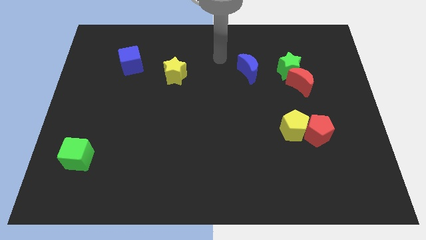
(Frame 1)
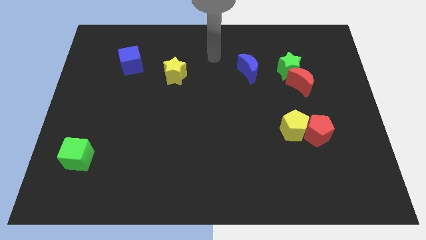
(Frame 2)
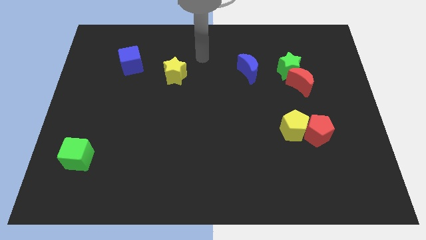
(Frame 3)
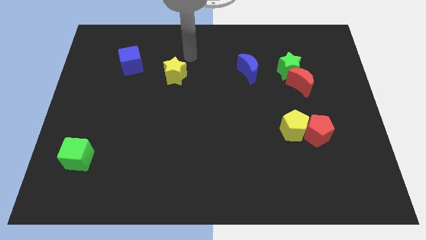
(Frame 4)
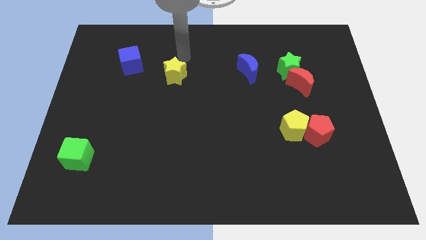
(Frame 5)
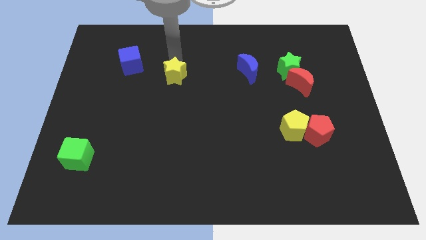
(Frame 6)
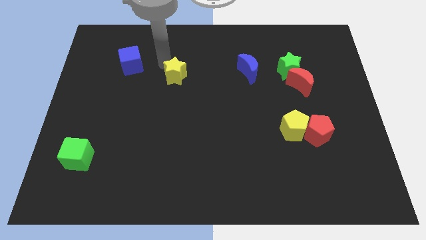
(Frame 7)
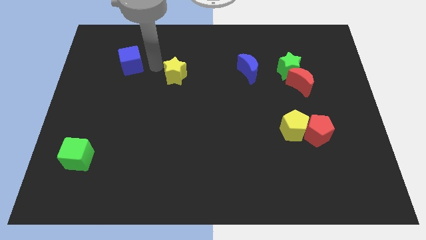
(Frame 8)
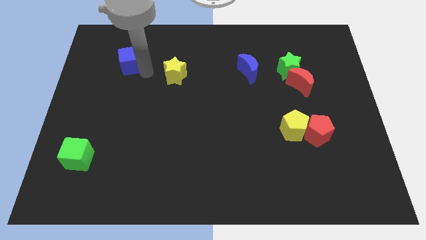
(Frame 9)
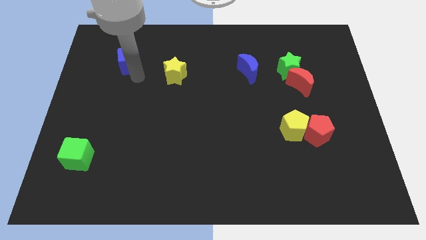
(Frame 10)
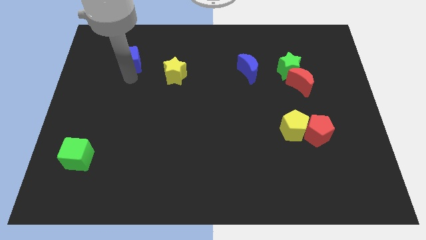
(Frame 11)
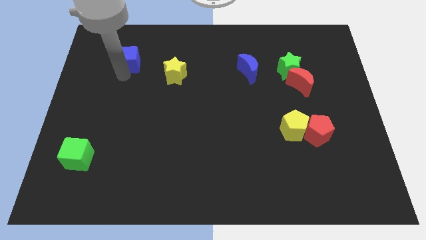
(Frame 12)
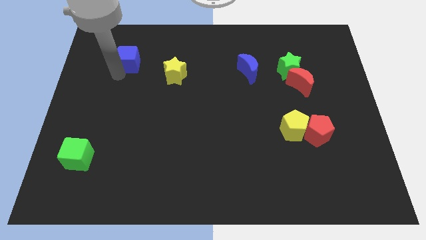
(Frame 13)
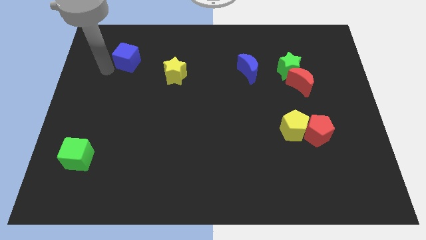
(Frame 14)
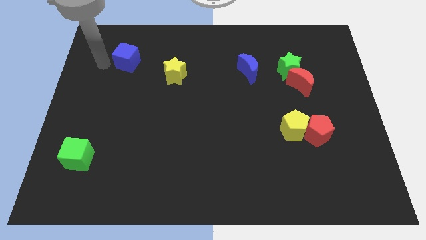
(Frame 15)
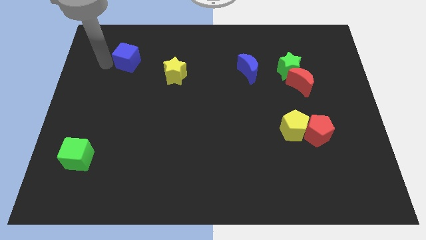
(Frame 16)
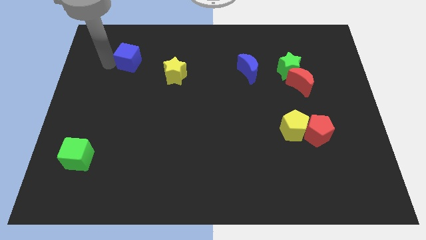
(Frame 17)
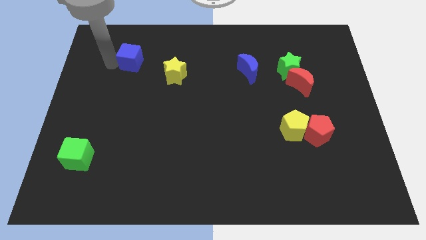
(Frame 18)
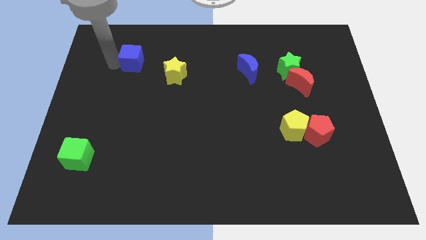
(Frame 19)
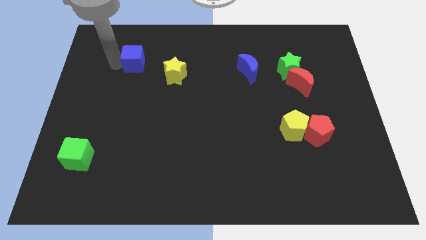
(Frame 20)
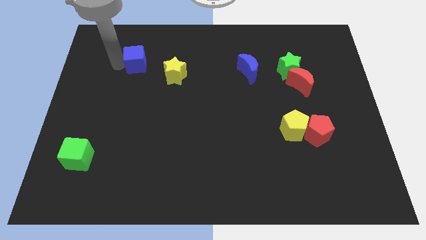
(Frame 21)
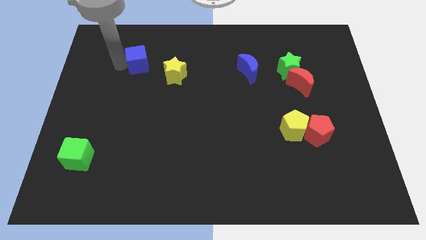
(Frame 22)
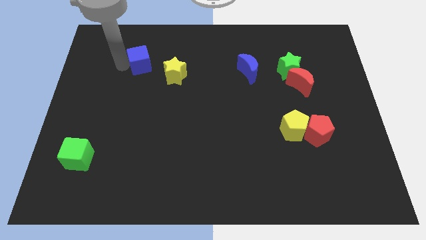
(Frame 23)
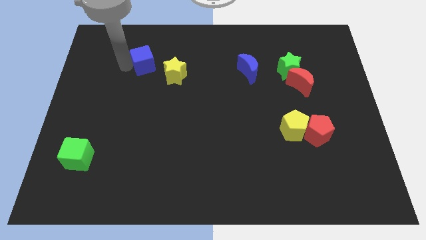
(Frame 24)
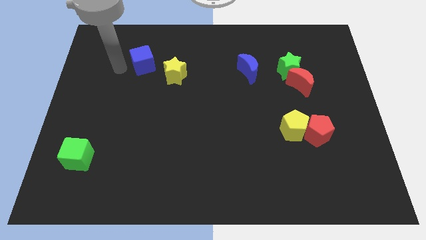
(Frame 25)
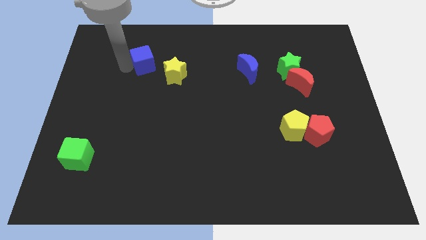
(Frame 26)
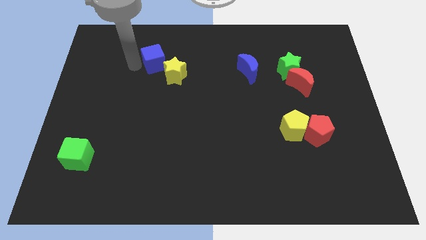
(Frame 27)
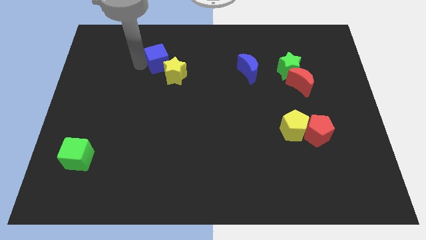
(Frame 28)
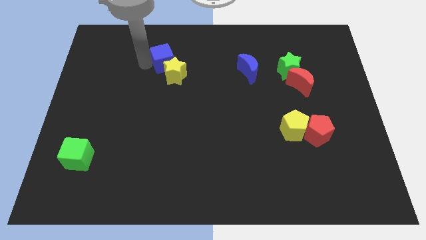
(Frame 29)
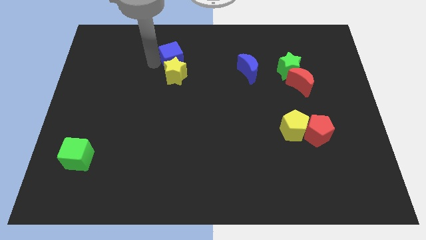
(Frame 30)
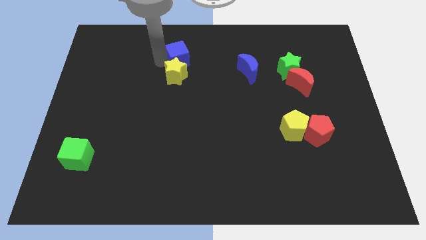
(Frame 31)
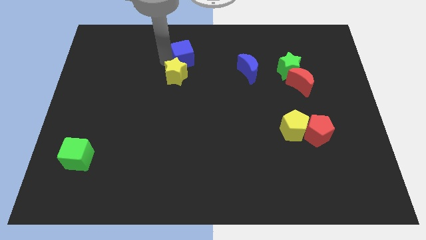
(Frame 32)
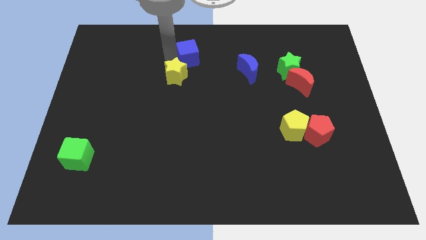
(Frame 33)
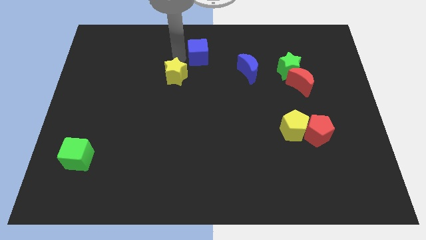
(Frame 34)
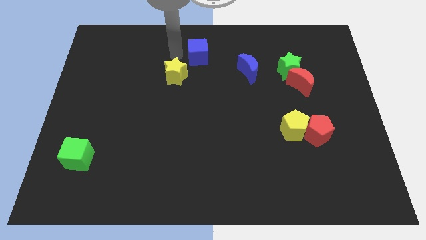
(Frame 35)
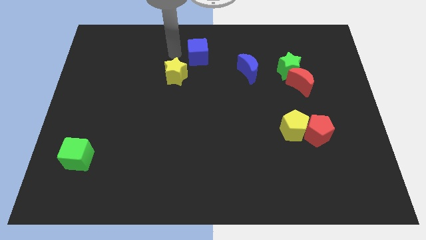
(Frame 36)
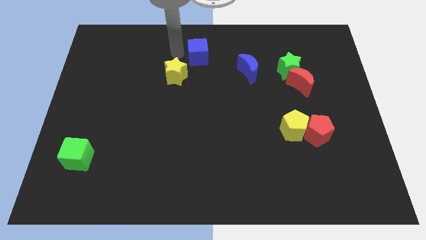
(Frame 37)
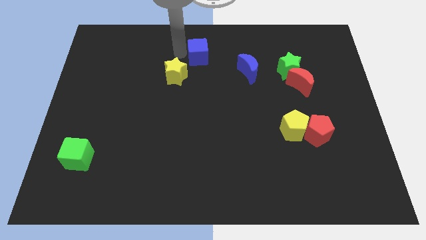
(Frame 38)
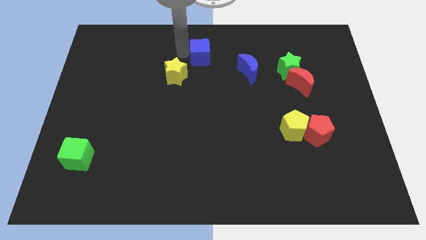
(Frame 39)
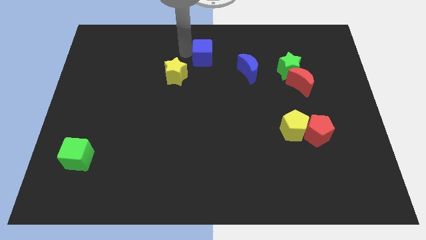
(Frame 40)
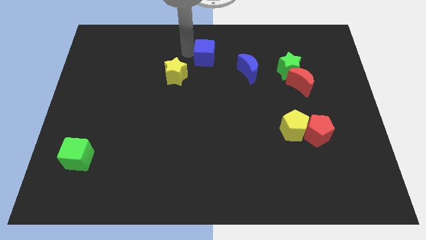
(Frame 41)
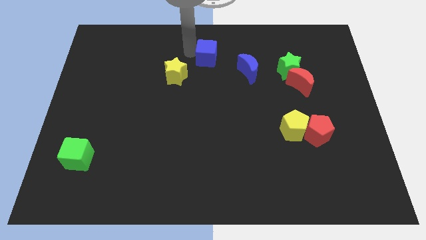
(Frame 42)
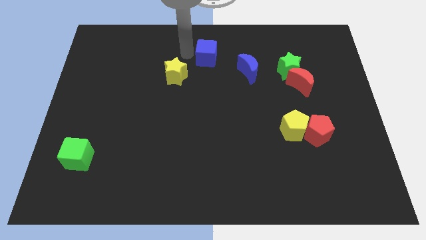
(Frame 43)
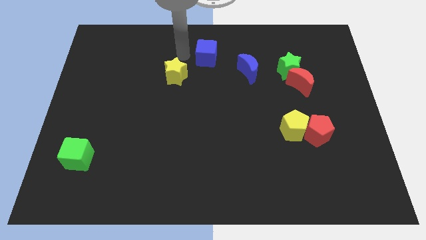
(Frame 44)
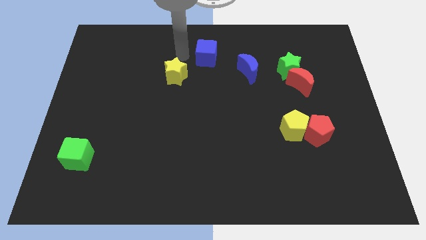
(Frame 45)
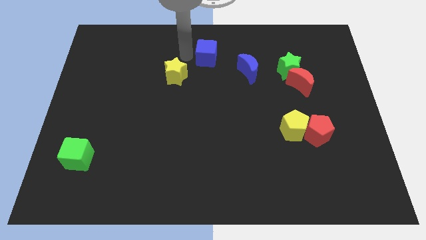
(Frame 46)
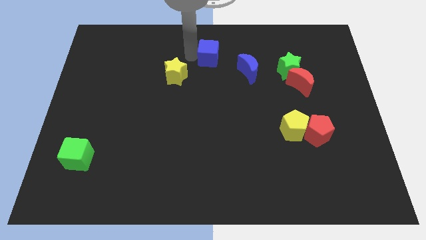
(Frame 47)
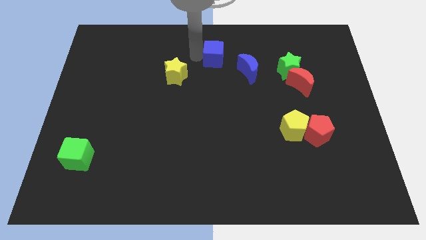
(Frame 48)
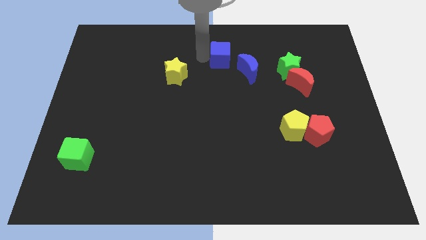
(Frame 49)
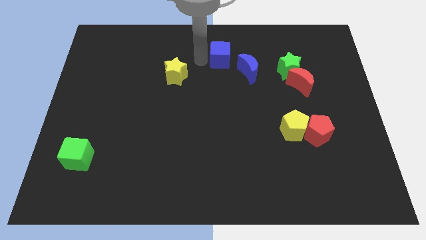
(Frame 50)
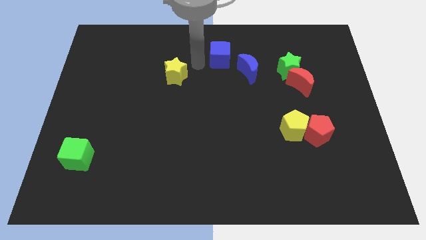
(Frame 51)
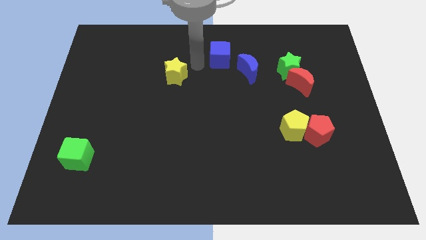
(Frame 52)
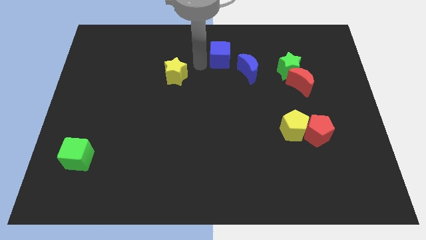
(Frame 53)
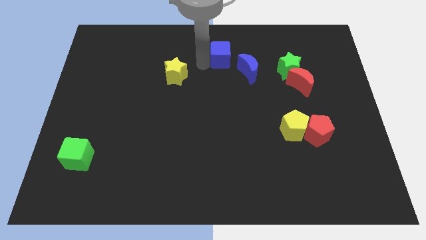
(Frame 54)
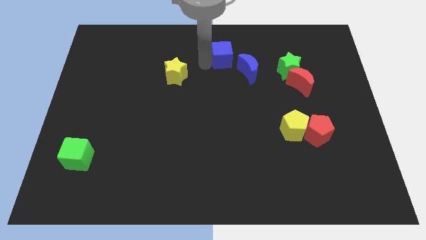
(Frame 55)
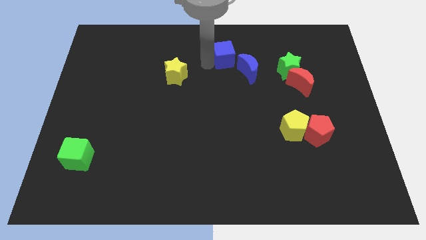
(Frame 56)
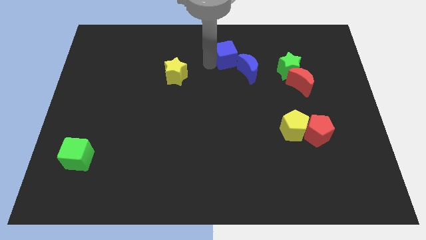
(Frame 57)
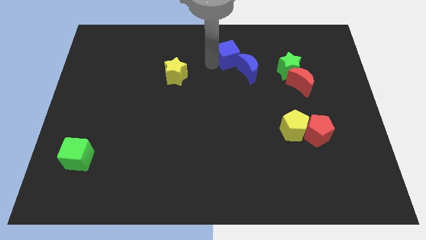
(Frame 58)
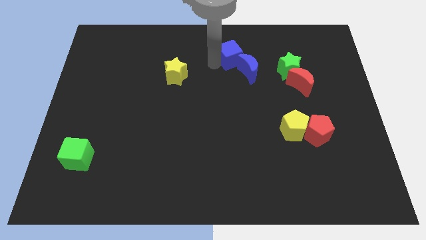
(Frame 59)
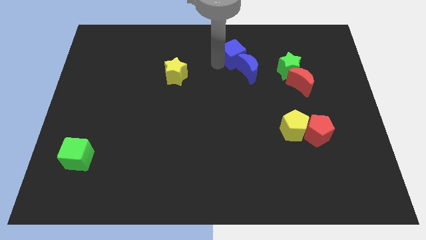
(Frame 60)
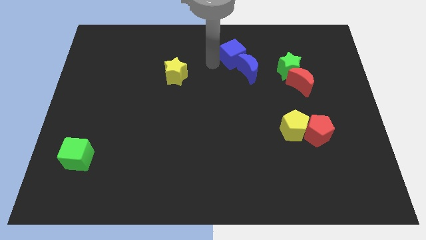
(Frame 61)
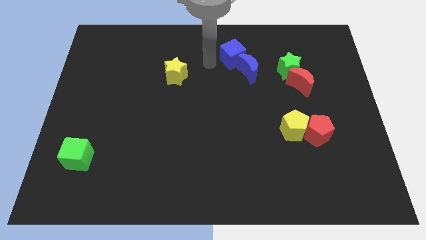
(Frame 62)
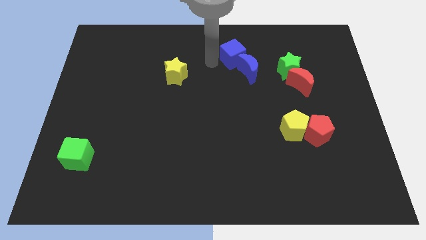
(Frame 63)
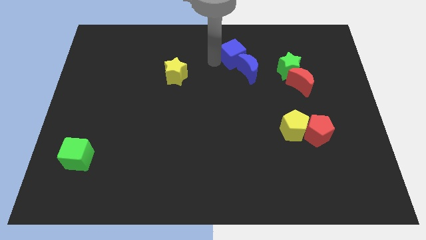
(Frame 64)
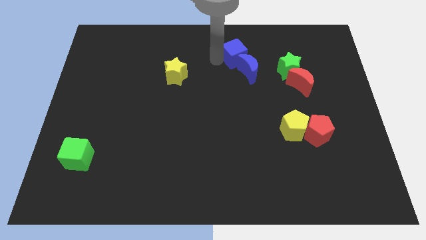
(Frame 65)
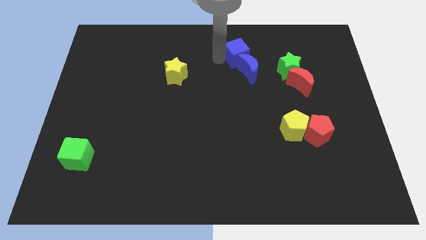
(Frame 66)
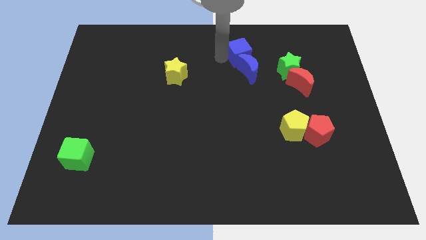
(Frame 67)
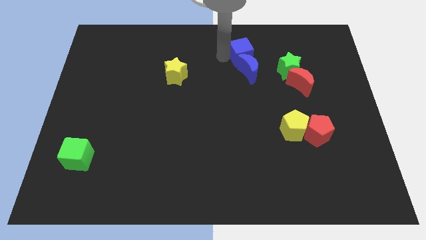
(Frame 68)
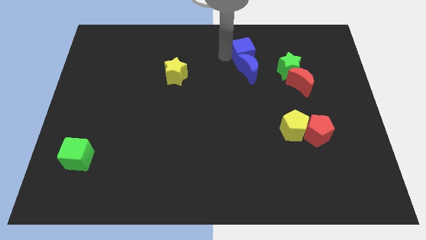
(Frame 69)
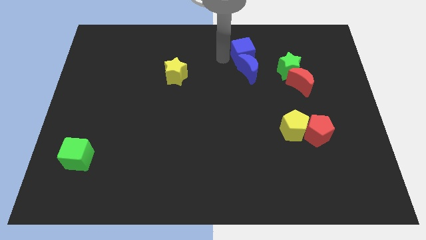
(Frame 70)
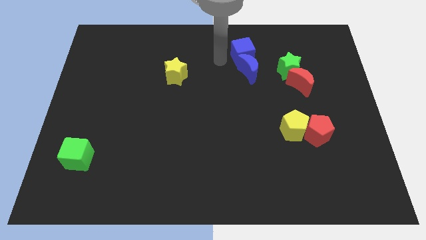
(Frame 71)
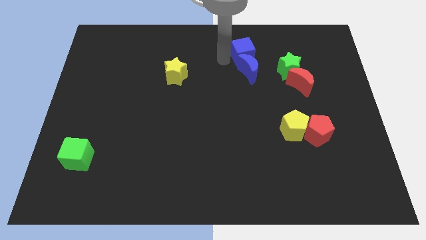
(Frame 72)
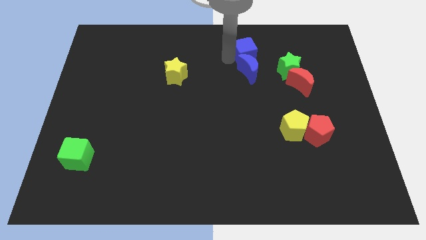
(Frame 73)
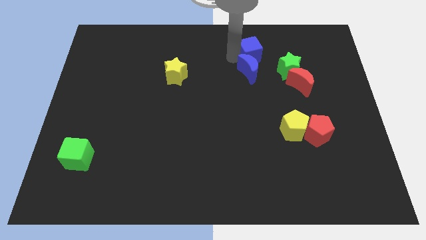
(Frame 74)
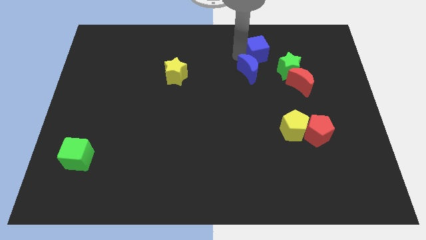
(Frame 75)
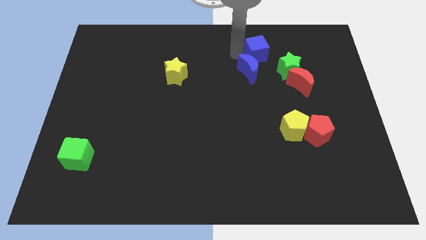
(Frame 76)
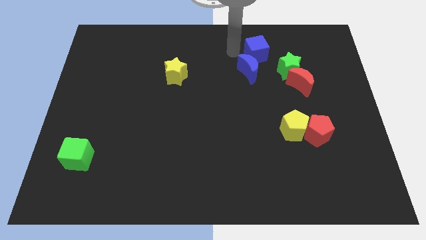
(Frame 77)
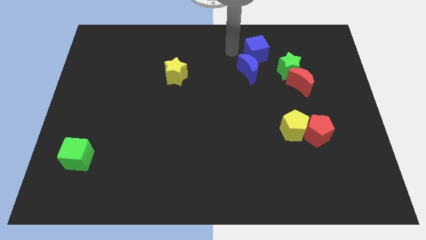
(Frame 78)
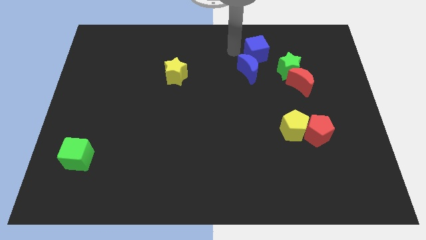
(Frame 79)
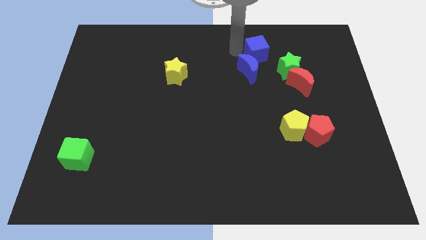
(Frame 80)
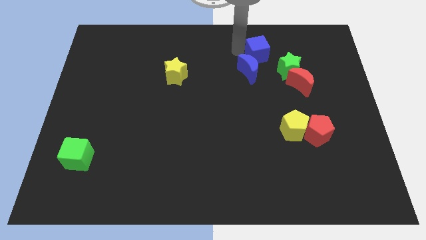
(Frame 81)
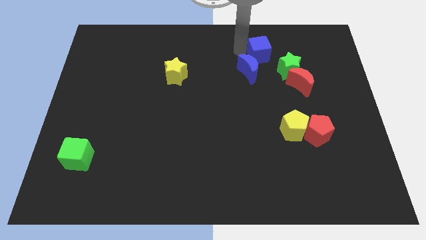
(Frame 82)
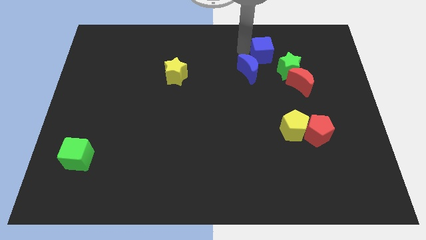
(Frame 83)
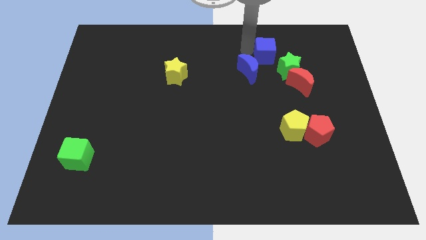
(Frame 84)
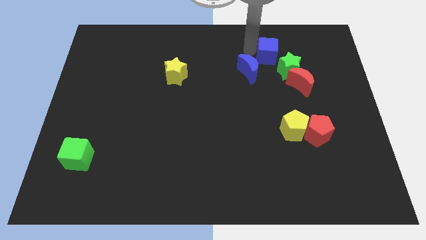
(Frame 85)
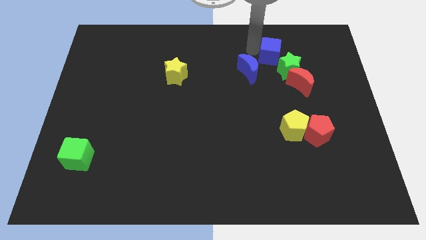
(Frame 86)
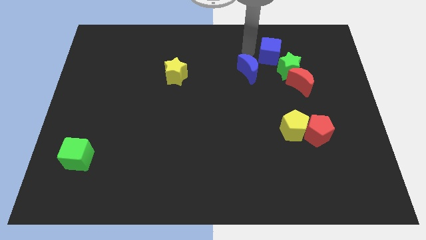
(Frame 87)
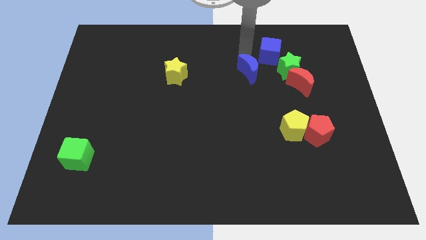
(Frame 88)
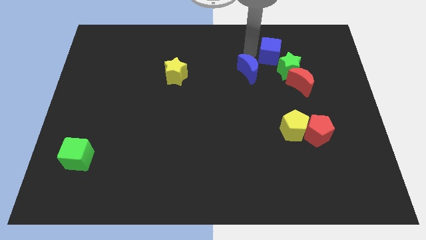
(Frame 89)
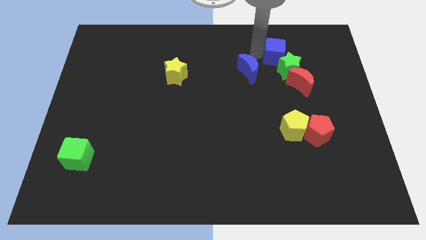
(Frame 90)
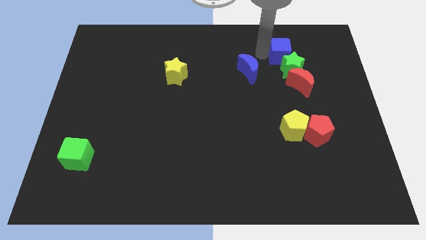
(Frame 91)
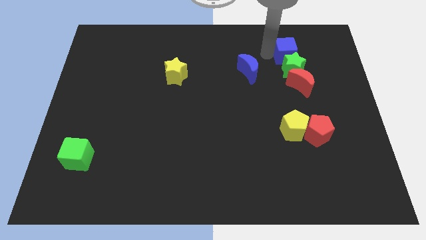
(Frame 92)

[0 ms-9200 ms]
put the blue cube to the top right of the green star
